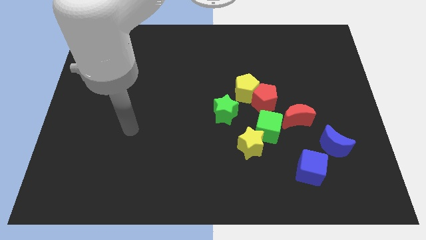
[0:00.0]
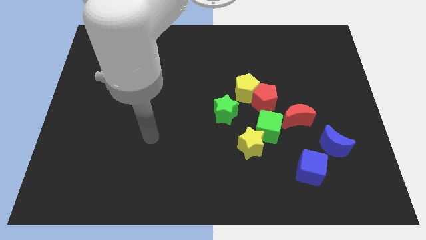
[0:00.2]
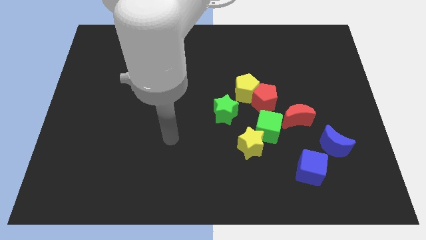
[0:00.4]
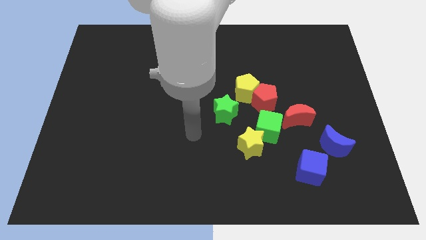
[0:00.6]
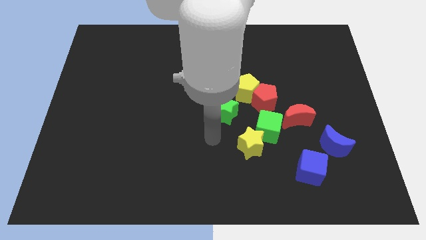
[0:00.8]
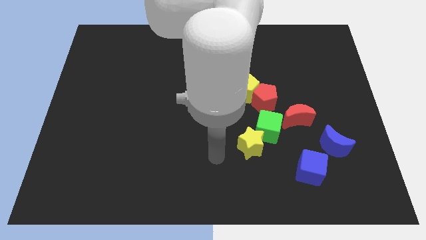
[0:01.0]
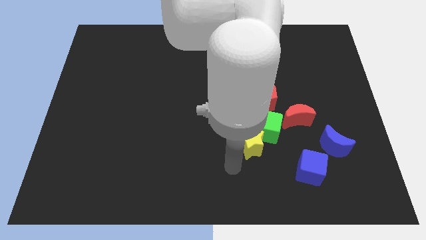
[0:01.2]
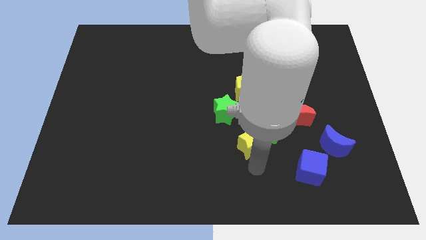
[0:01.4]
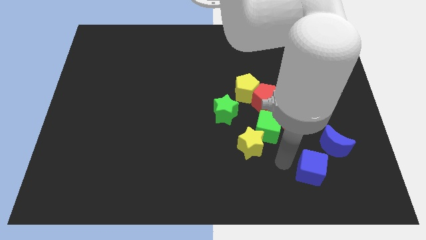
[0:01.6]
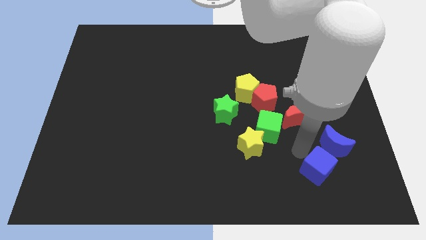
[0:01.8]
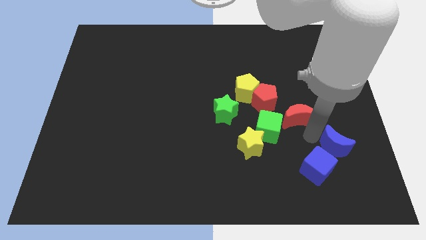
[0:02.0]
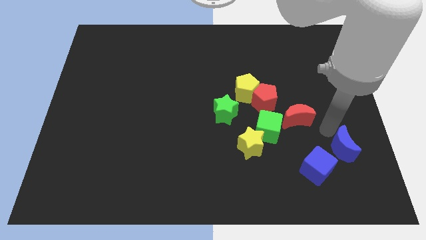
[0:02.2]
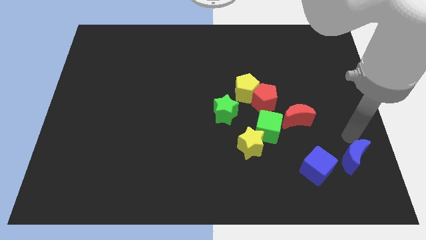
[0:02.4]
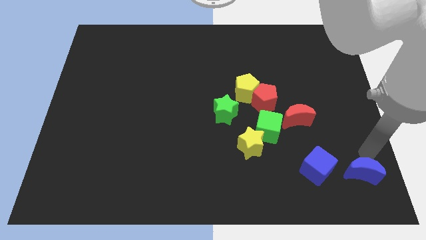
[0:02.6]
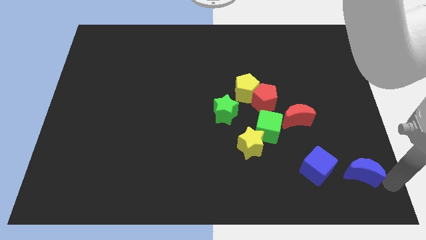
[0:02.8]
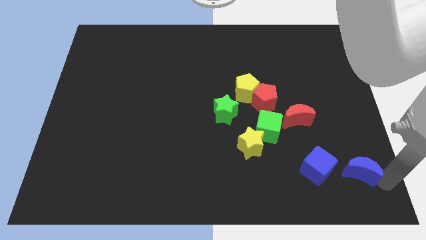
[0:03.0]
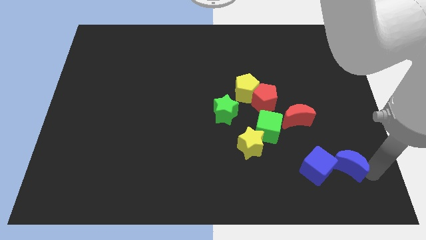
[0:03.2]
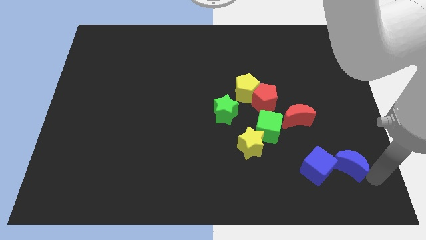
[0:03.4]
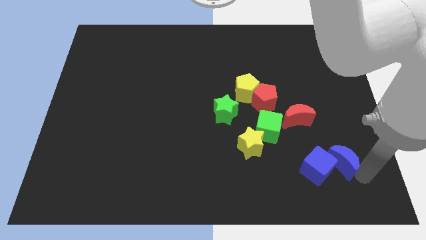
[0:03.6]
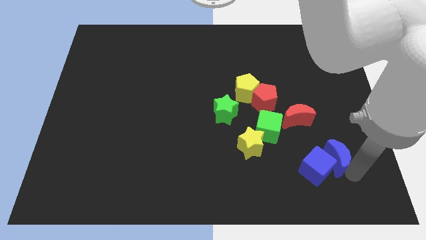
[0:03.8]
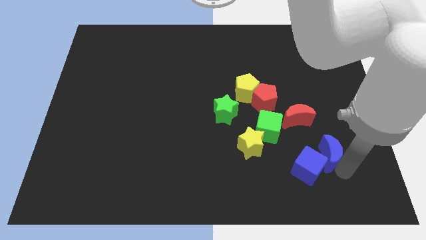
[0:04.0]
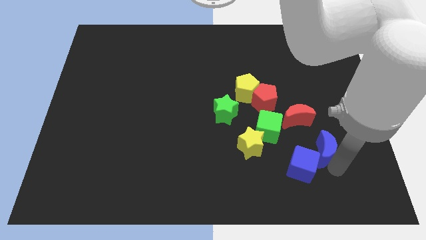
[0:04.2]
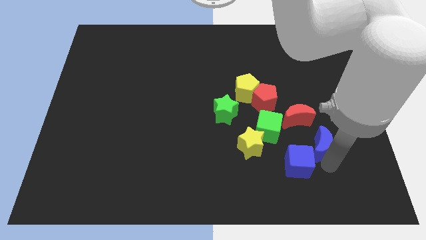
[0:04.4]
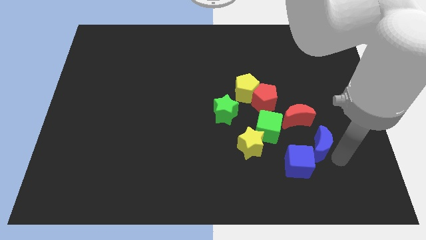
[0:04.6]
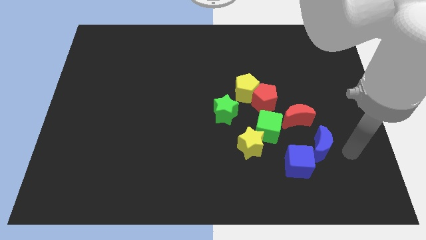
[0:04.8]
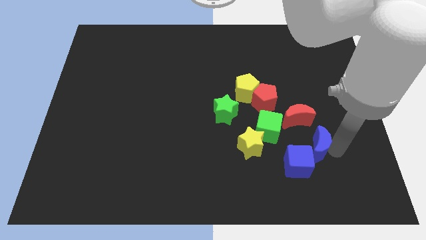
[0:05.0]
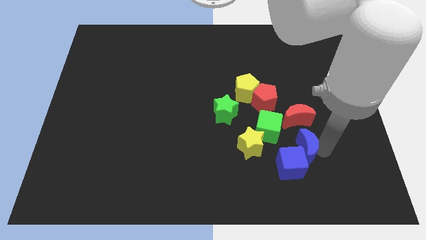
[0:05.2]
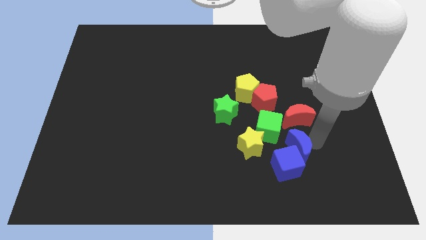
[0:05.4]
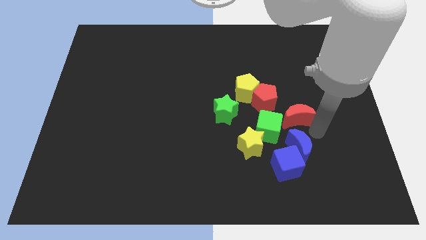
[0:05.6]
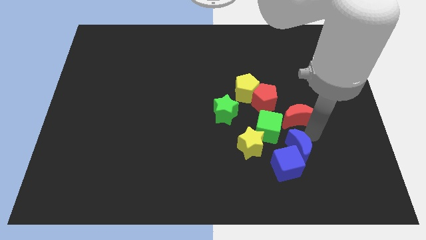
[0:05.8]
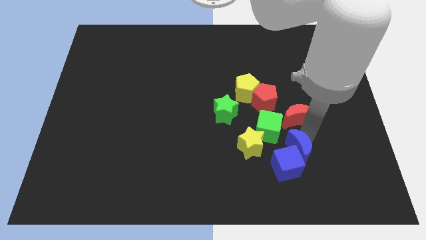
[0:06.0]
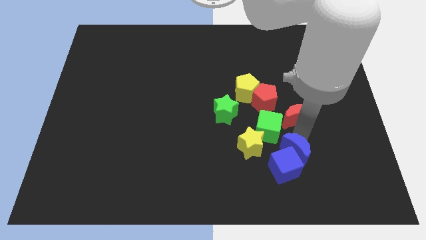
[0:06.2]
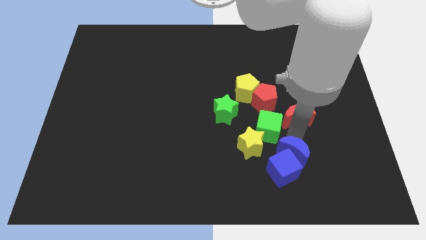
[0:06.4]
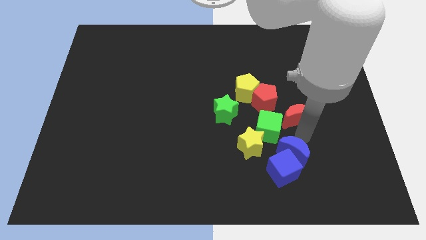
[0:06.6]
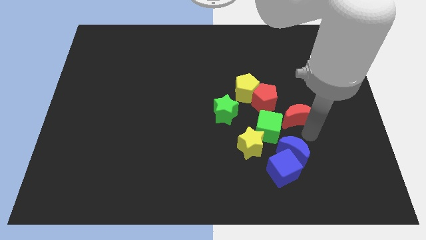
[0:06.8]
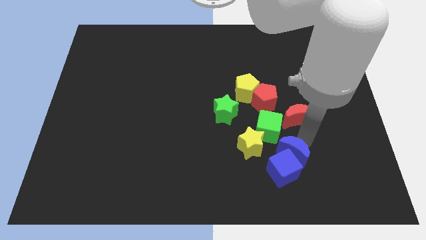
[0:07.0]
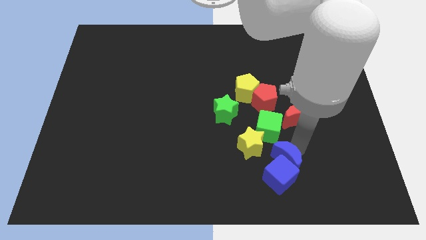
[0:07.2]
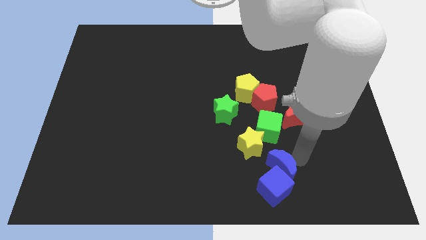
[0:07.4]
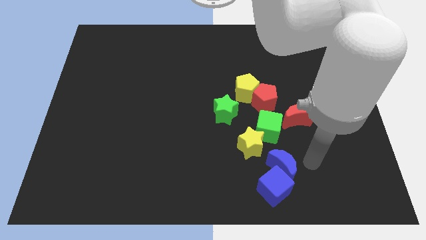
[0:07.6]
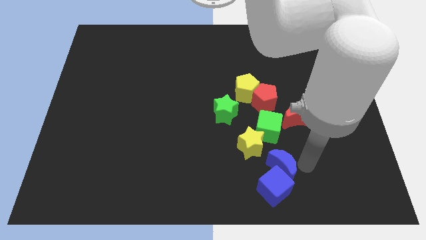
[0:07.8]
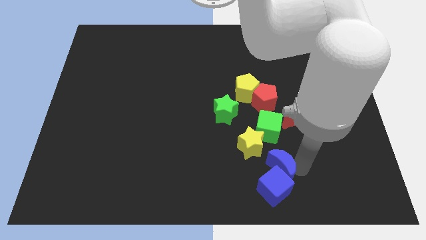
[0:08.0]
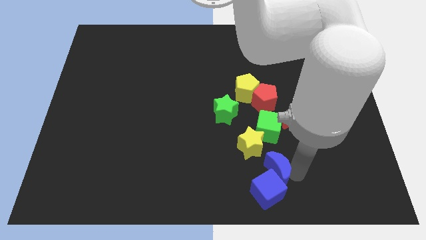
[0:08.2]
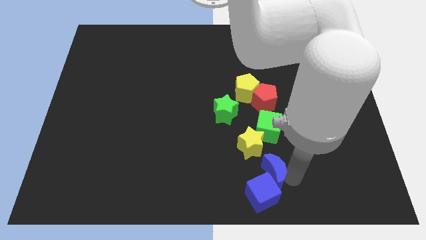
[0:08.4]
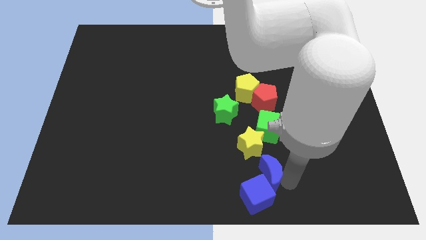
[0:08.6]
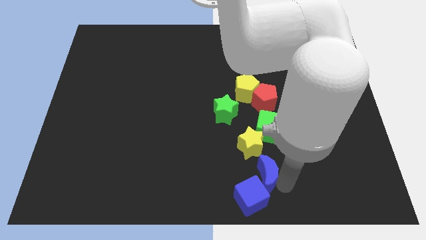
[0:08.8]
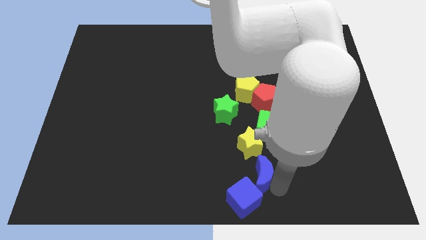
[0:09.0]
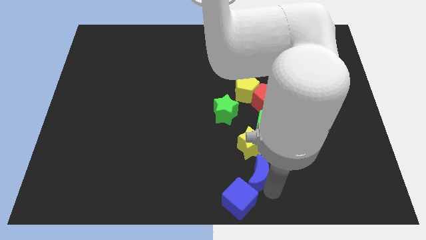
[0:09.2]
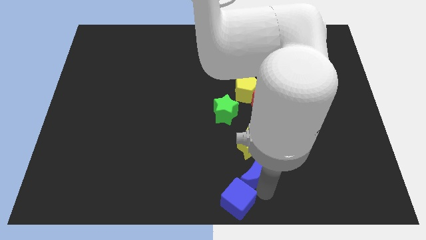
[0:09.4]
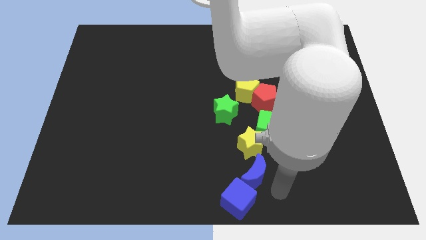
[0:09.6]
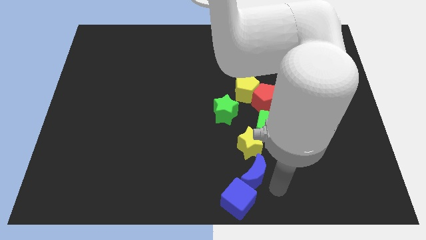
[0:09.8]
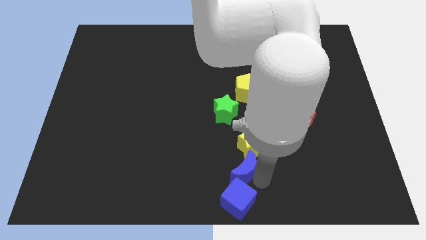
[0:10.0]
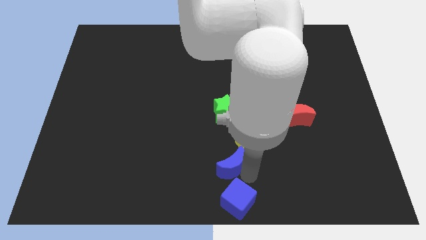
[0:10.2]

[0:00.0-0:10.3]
move the blue moon left

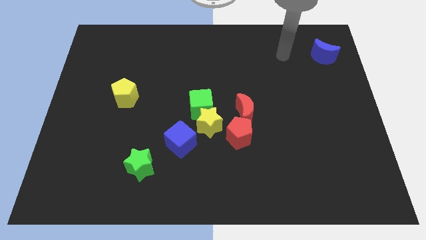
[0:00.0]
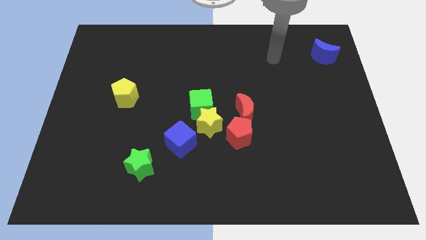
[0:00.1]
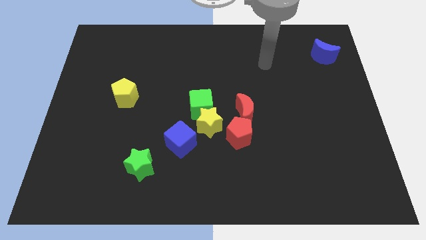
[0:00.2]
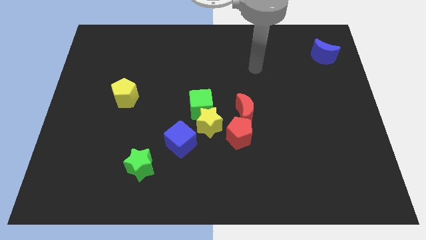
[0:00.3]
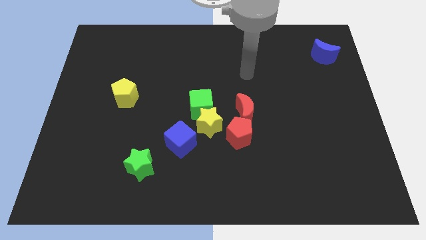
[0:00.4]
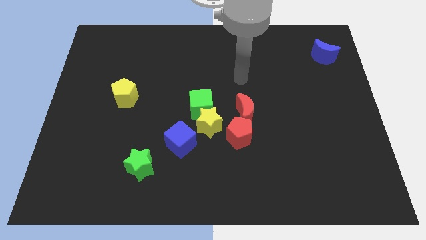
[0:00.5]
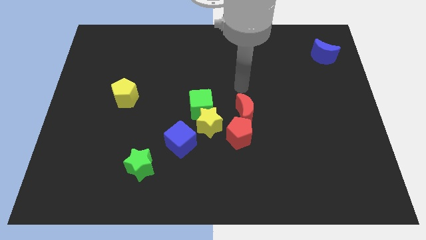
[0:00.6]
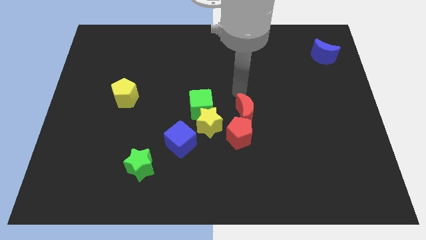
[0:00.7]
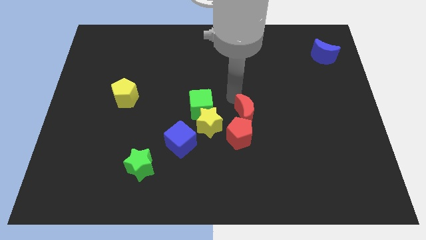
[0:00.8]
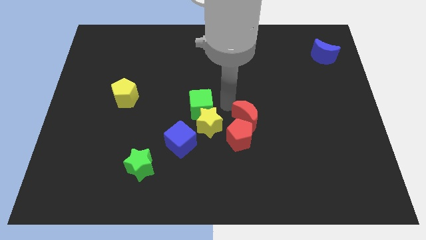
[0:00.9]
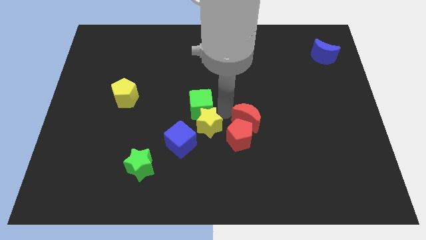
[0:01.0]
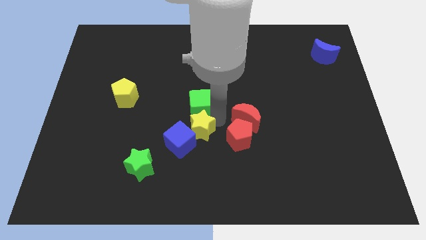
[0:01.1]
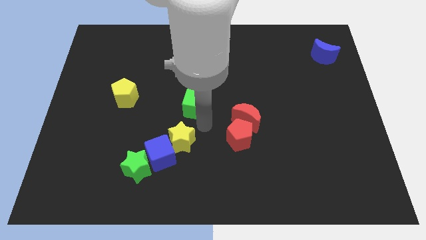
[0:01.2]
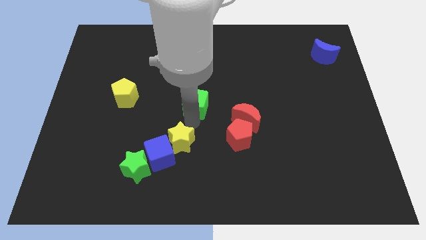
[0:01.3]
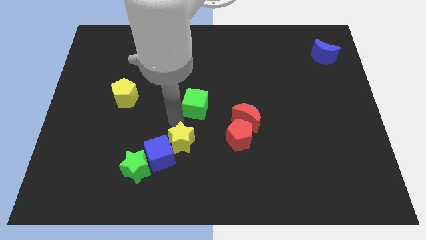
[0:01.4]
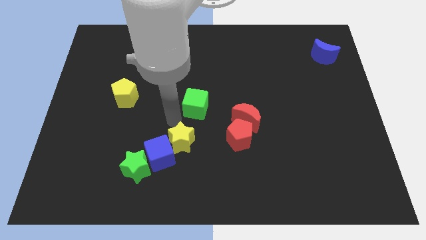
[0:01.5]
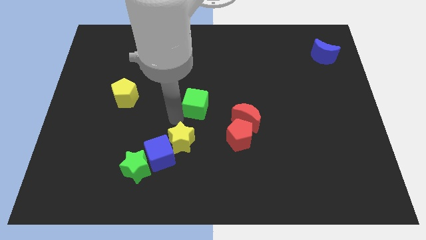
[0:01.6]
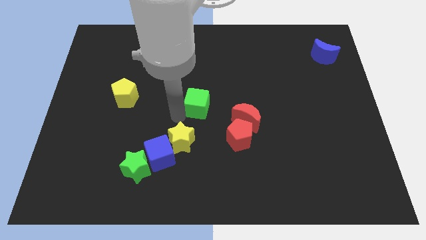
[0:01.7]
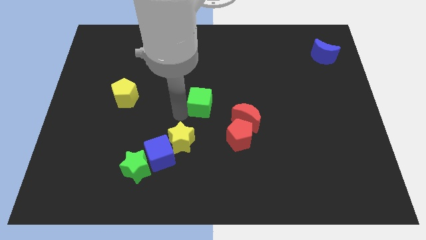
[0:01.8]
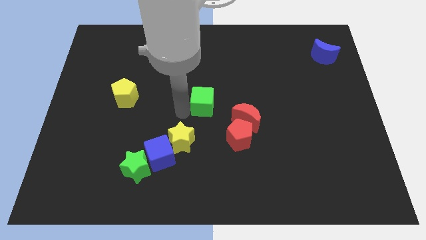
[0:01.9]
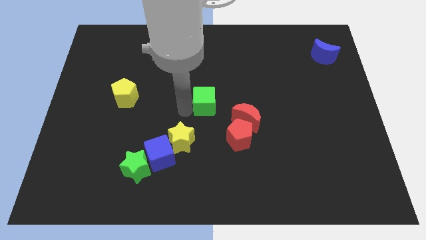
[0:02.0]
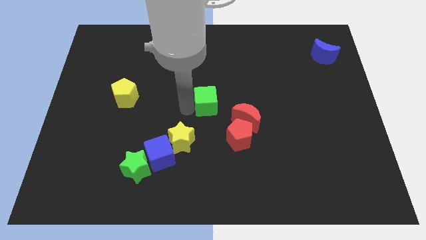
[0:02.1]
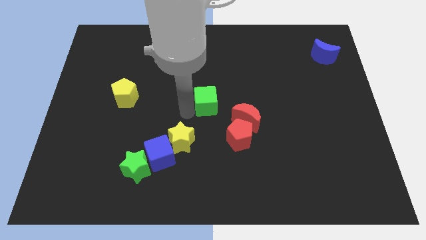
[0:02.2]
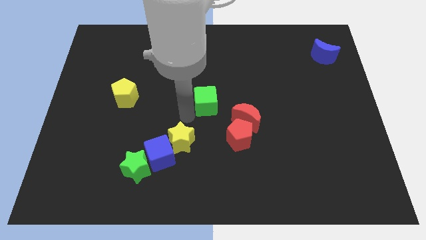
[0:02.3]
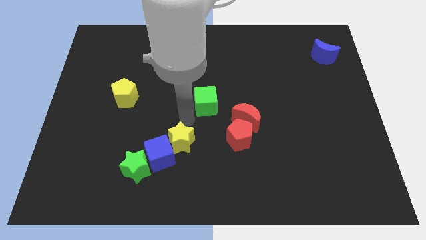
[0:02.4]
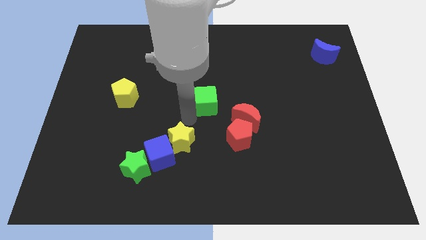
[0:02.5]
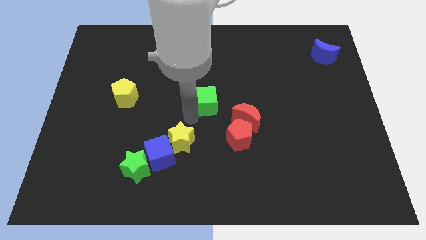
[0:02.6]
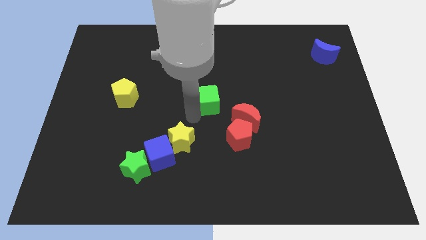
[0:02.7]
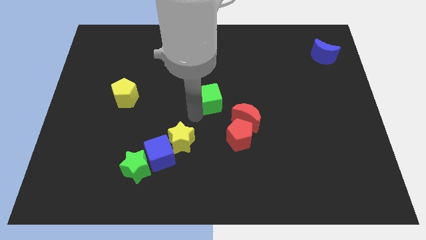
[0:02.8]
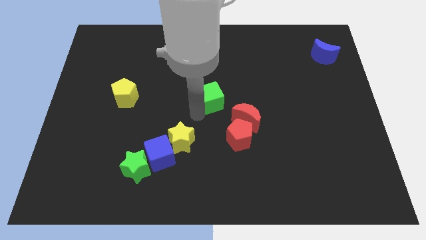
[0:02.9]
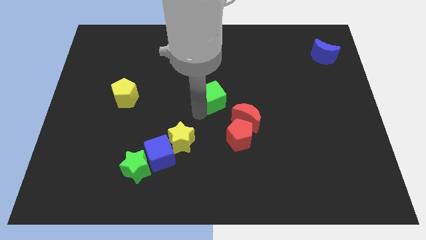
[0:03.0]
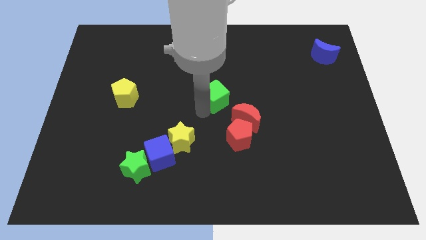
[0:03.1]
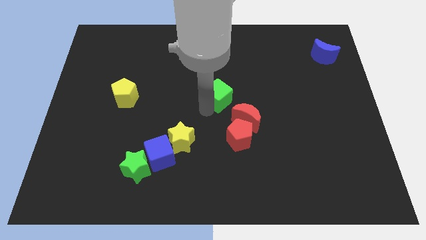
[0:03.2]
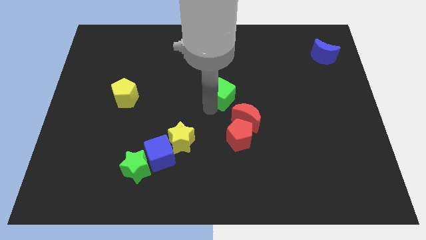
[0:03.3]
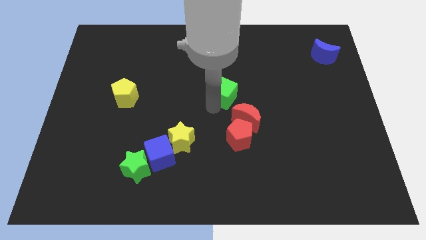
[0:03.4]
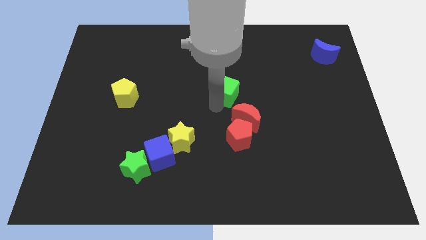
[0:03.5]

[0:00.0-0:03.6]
slightly push the green cube up and to the right diagonally
